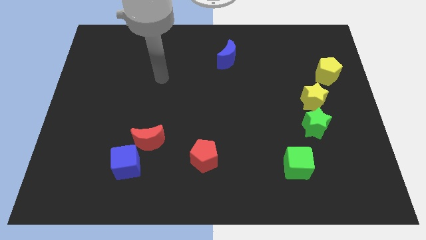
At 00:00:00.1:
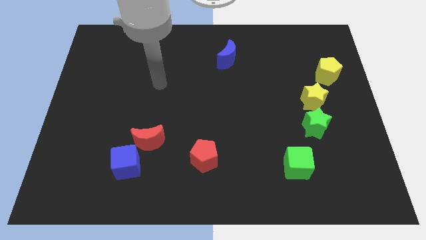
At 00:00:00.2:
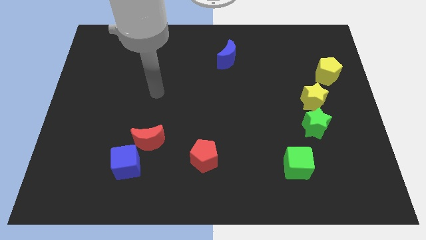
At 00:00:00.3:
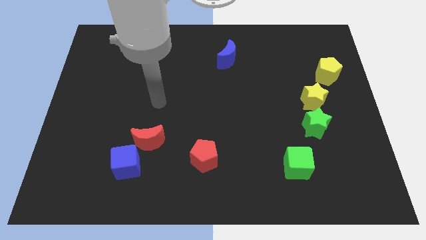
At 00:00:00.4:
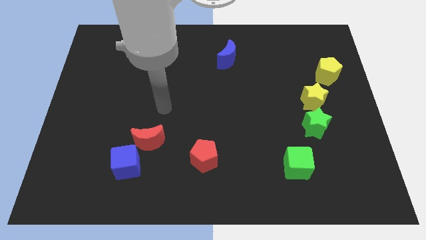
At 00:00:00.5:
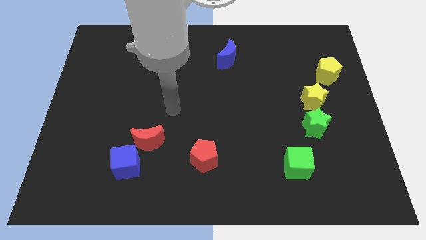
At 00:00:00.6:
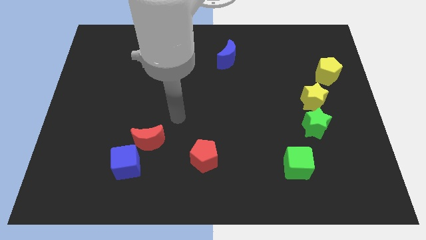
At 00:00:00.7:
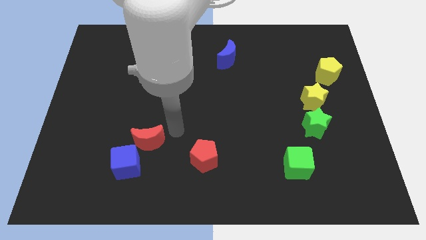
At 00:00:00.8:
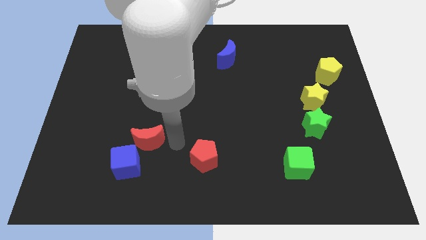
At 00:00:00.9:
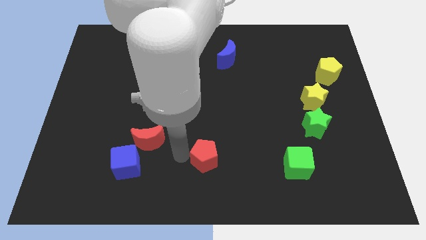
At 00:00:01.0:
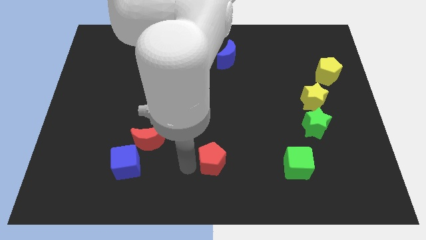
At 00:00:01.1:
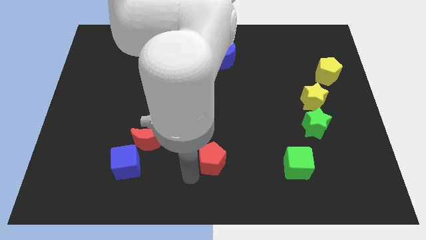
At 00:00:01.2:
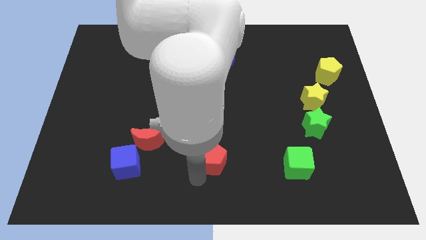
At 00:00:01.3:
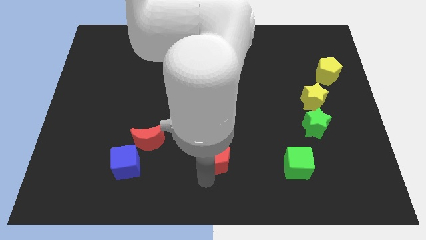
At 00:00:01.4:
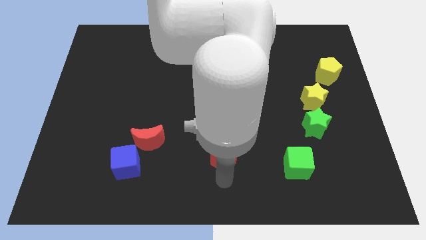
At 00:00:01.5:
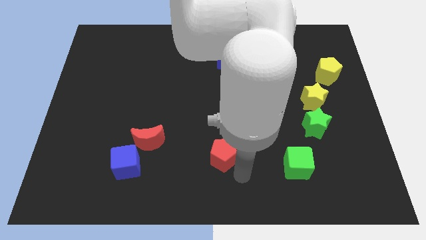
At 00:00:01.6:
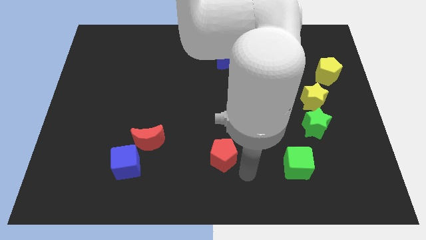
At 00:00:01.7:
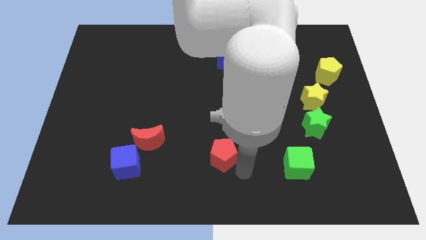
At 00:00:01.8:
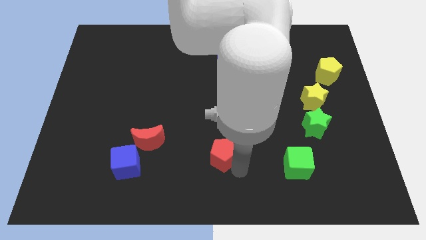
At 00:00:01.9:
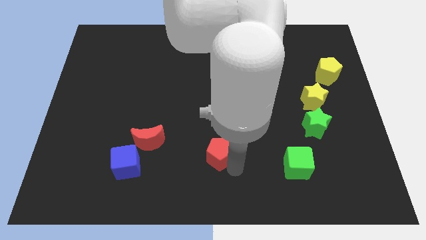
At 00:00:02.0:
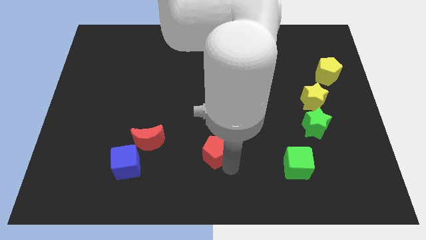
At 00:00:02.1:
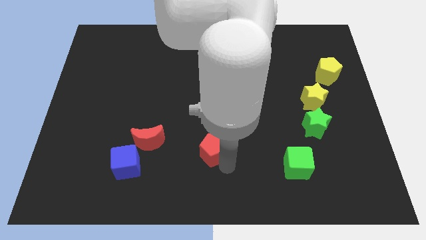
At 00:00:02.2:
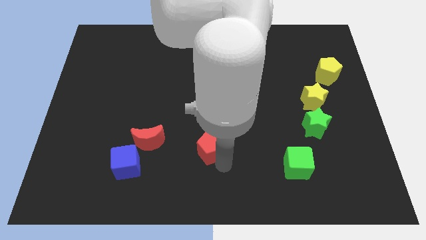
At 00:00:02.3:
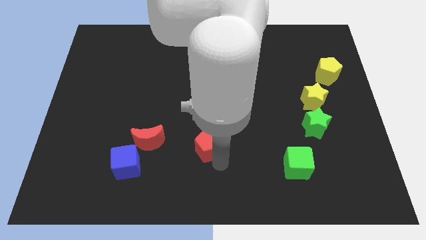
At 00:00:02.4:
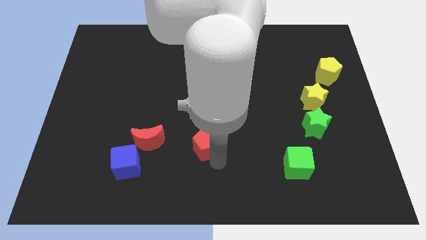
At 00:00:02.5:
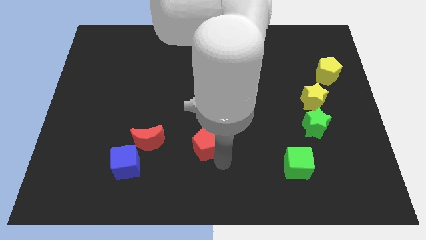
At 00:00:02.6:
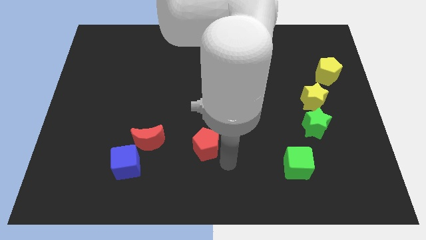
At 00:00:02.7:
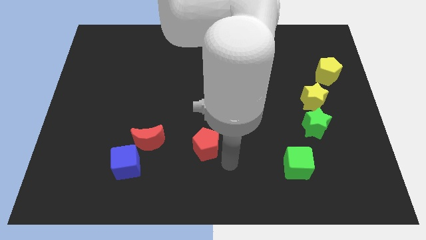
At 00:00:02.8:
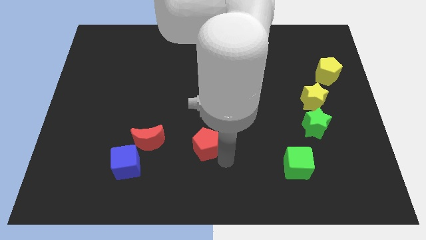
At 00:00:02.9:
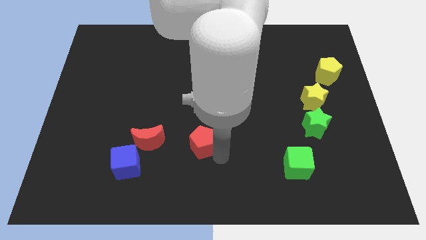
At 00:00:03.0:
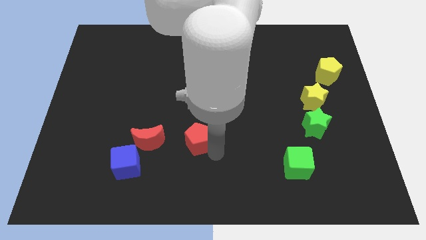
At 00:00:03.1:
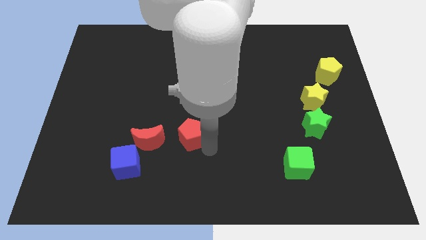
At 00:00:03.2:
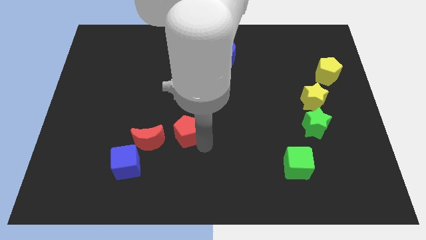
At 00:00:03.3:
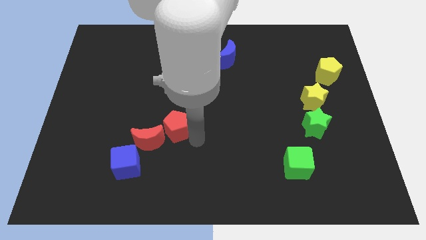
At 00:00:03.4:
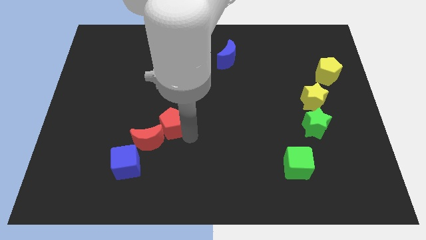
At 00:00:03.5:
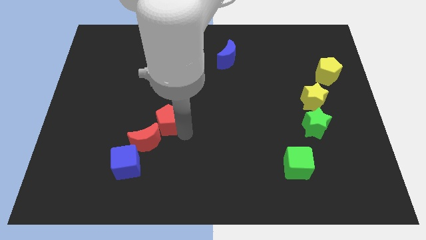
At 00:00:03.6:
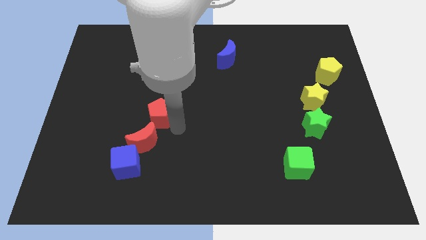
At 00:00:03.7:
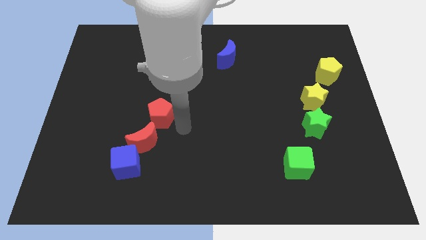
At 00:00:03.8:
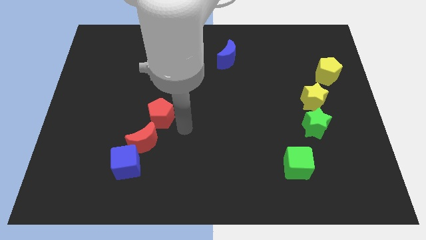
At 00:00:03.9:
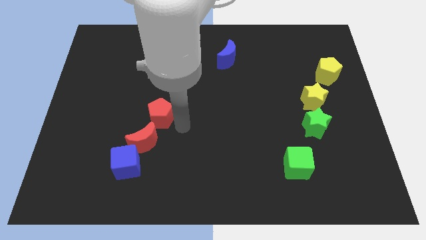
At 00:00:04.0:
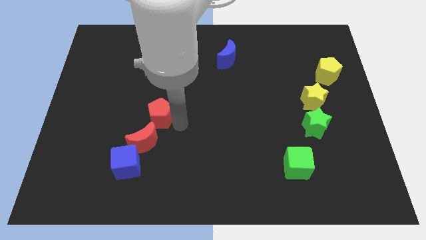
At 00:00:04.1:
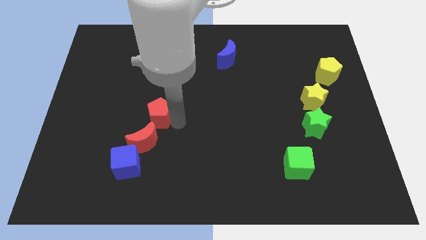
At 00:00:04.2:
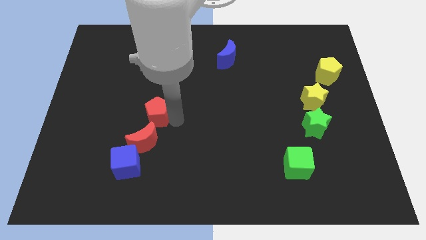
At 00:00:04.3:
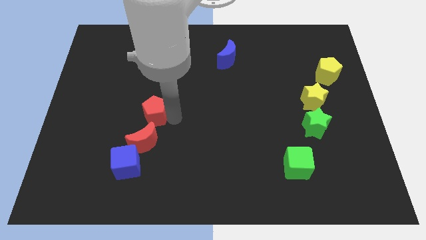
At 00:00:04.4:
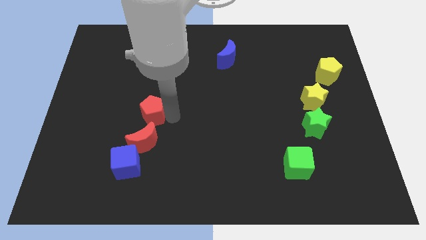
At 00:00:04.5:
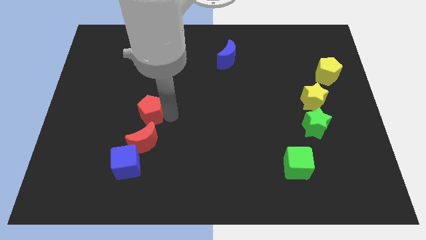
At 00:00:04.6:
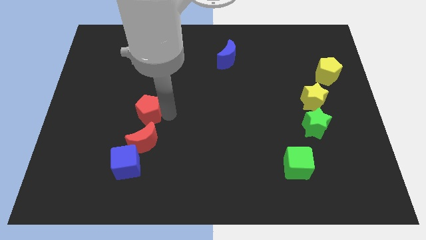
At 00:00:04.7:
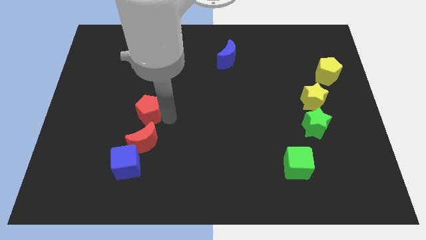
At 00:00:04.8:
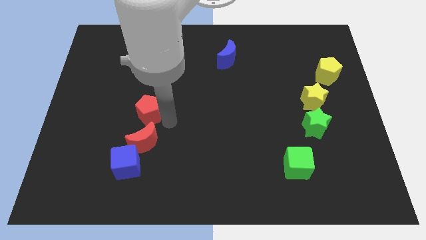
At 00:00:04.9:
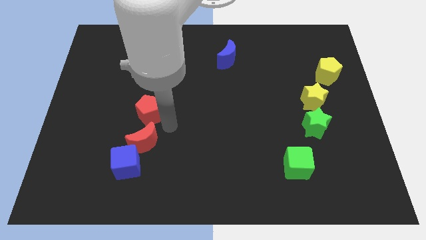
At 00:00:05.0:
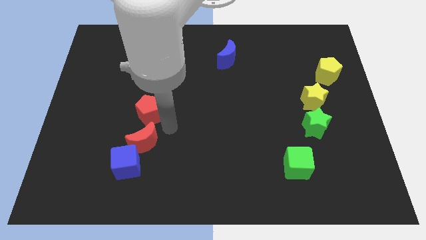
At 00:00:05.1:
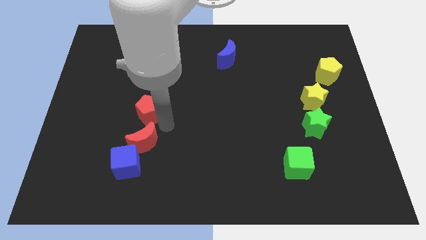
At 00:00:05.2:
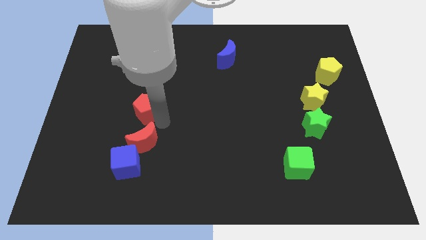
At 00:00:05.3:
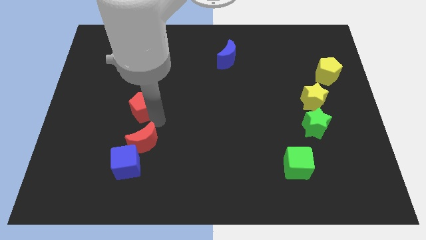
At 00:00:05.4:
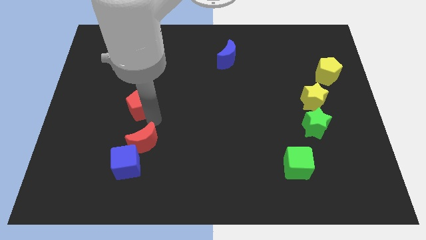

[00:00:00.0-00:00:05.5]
push the red pentagon upwards and then left

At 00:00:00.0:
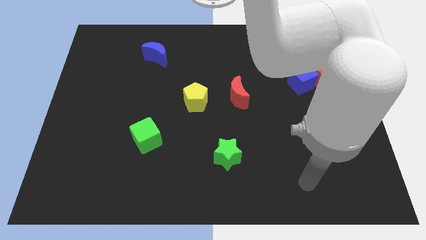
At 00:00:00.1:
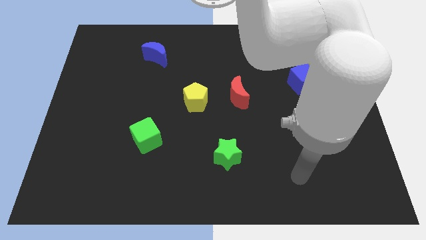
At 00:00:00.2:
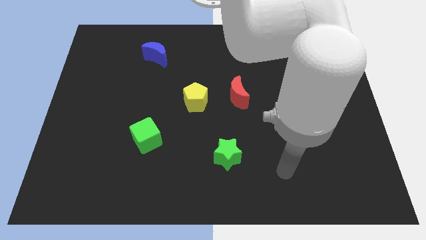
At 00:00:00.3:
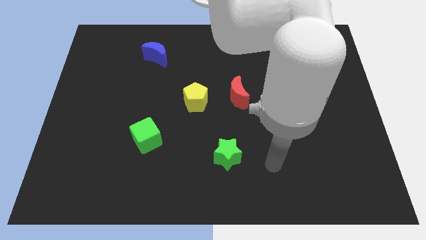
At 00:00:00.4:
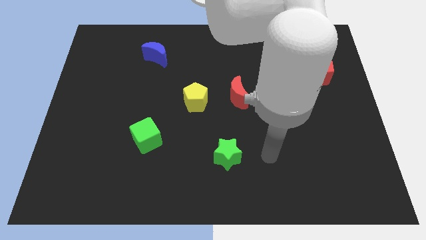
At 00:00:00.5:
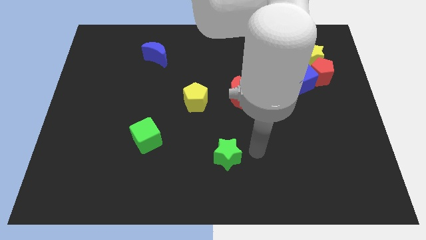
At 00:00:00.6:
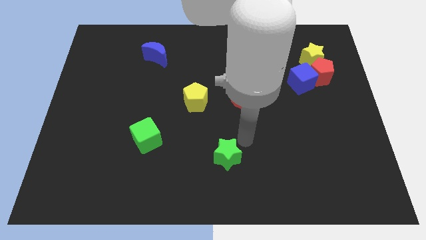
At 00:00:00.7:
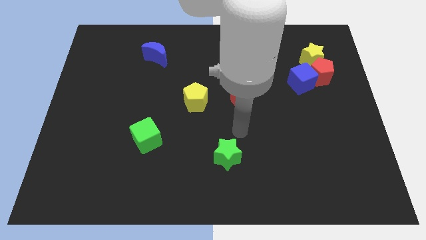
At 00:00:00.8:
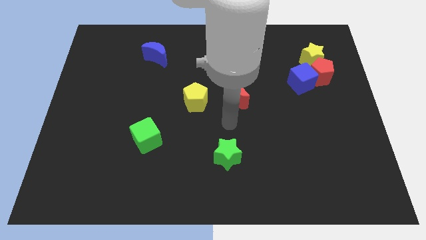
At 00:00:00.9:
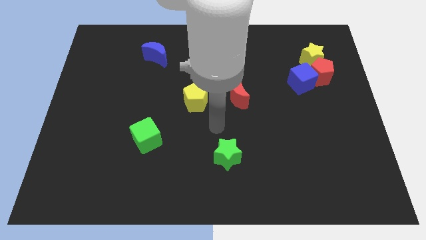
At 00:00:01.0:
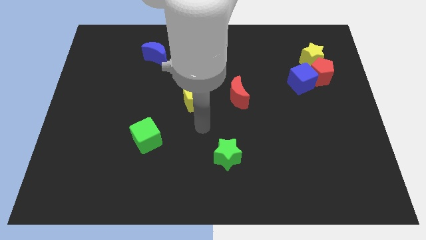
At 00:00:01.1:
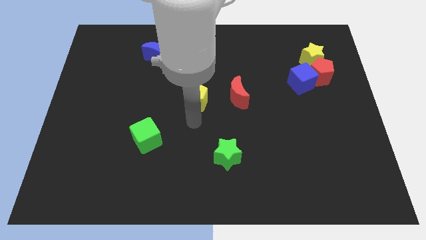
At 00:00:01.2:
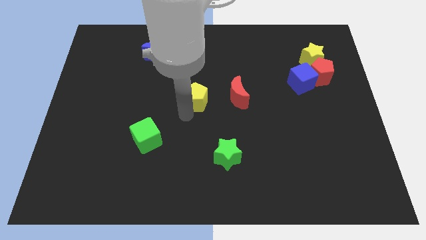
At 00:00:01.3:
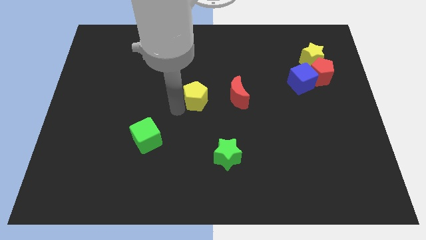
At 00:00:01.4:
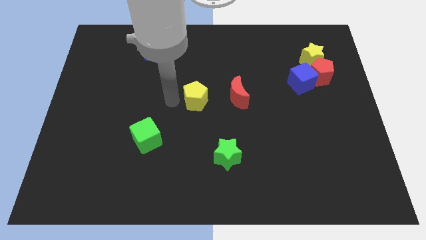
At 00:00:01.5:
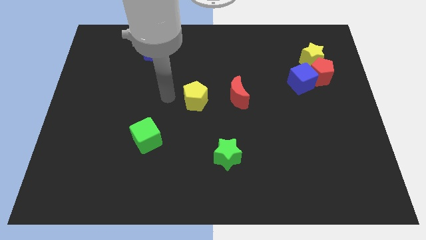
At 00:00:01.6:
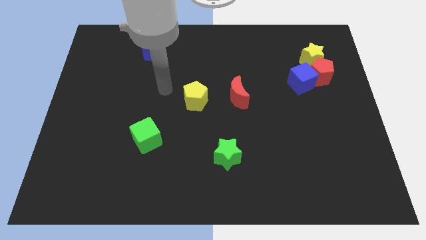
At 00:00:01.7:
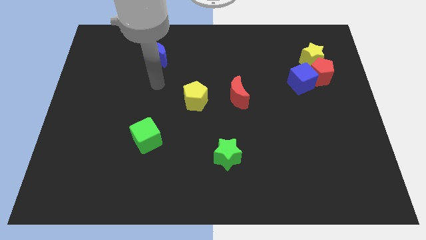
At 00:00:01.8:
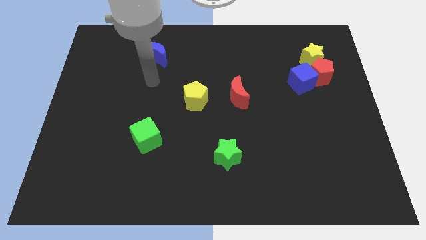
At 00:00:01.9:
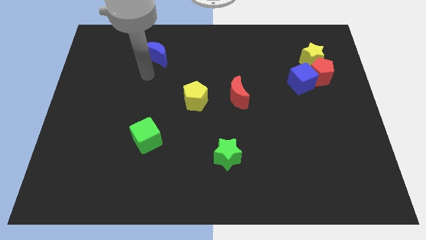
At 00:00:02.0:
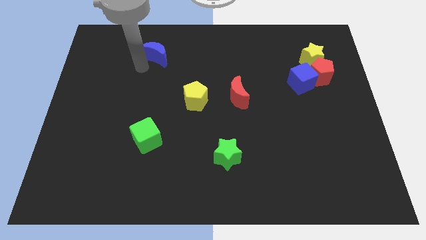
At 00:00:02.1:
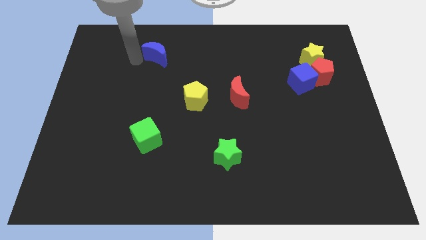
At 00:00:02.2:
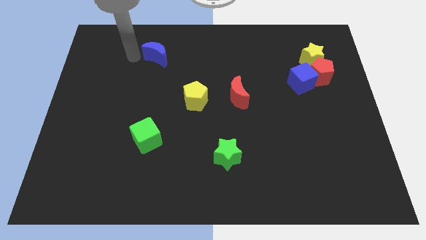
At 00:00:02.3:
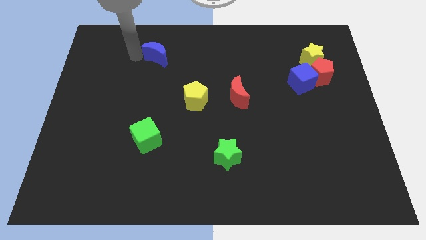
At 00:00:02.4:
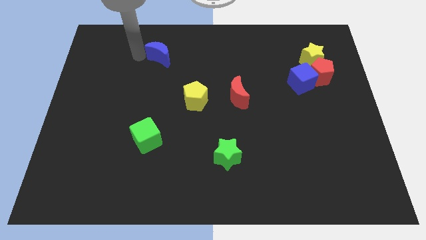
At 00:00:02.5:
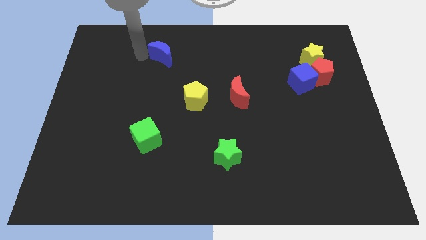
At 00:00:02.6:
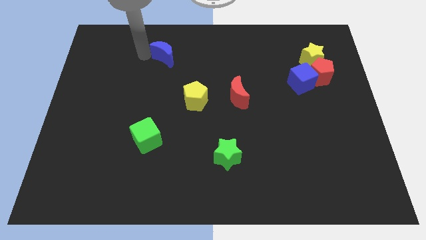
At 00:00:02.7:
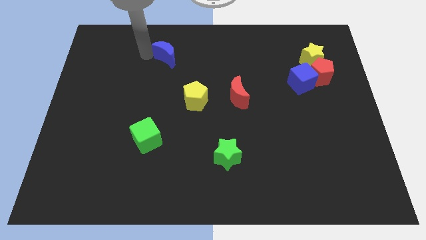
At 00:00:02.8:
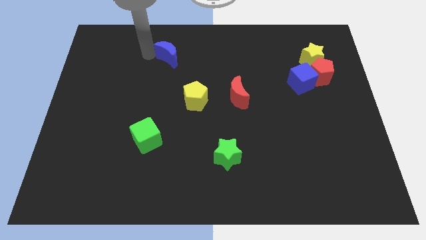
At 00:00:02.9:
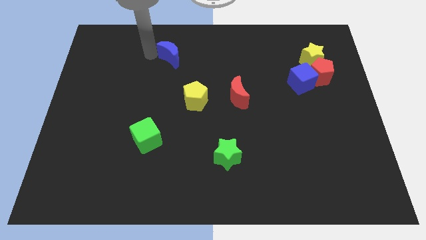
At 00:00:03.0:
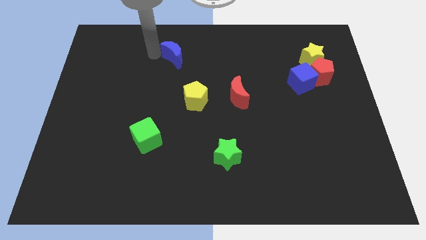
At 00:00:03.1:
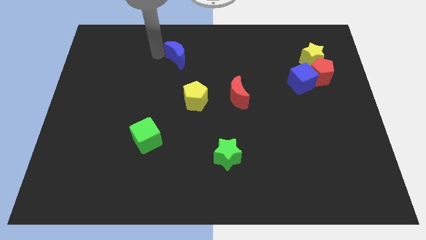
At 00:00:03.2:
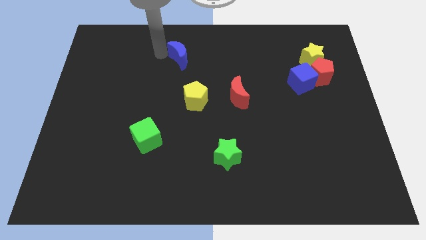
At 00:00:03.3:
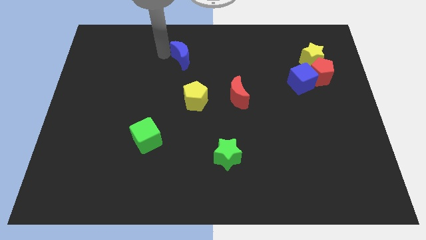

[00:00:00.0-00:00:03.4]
slightly move the blue moon right
